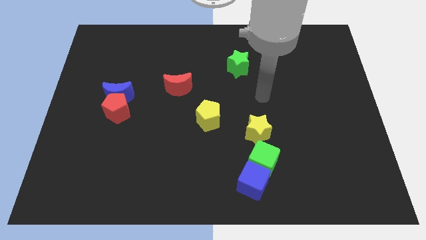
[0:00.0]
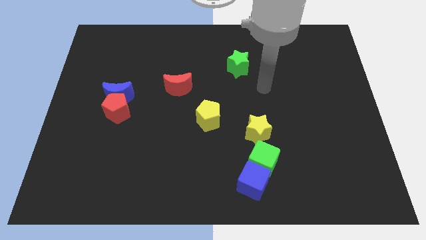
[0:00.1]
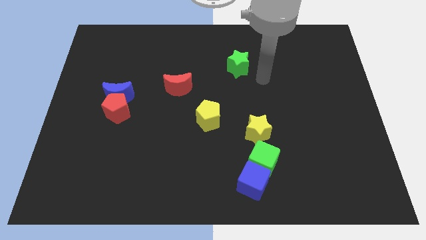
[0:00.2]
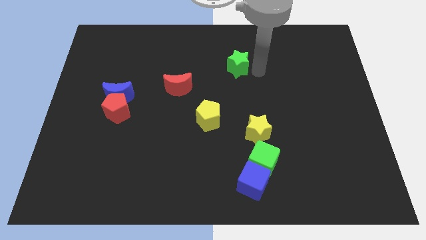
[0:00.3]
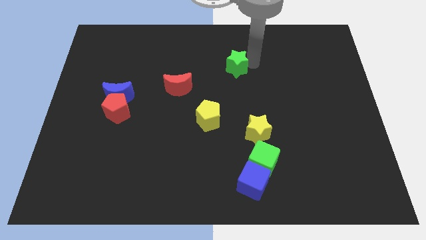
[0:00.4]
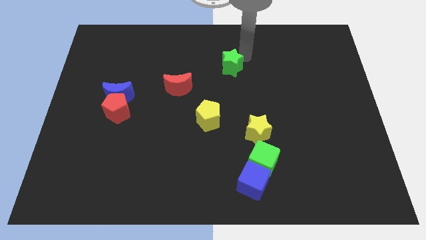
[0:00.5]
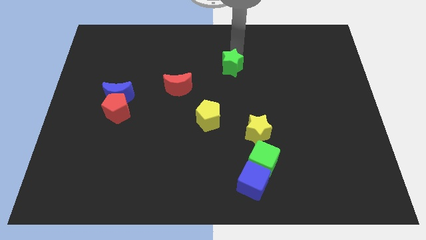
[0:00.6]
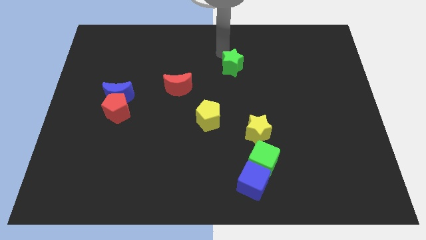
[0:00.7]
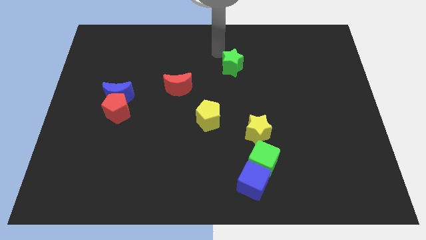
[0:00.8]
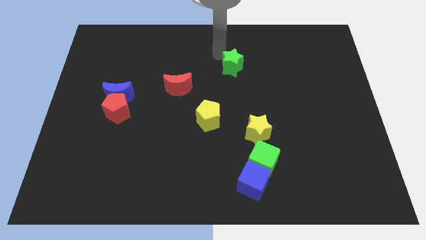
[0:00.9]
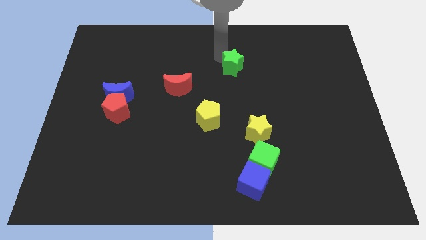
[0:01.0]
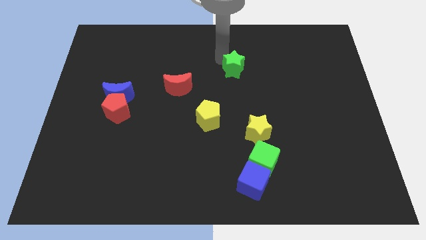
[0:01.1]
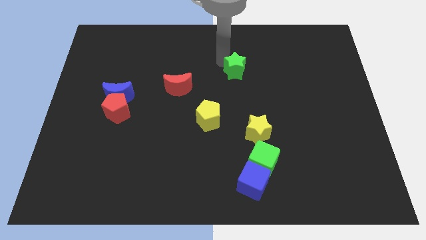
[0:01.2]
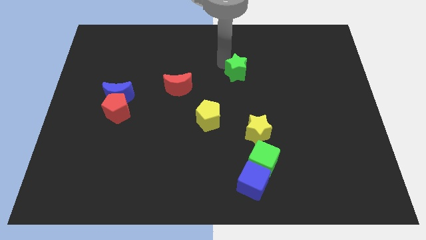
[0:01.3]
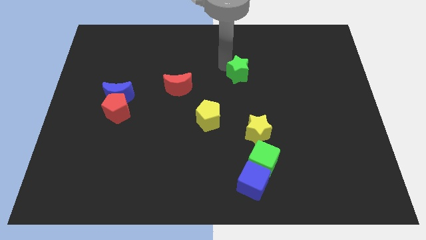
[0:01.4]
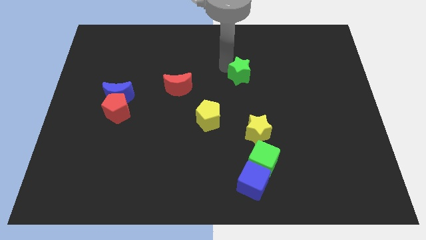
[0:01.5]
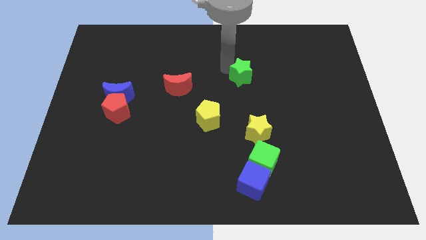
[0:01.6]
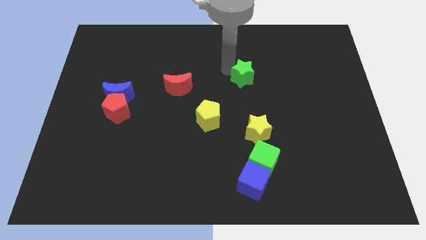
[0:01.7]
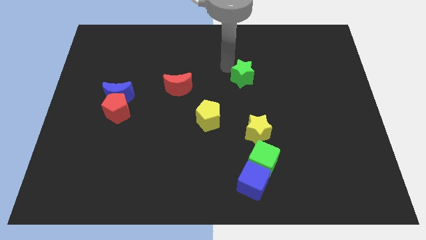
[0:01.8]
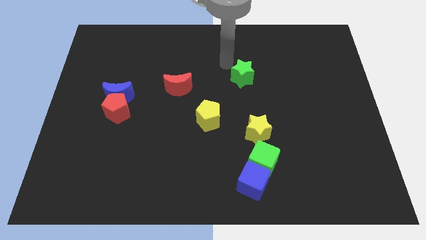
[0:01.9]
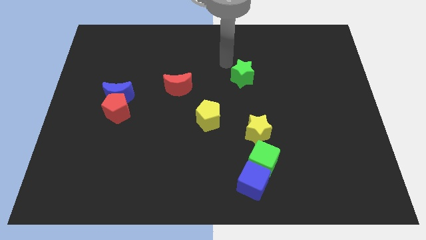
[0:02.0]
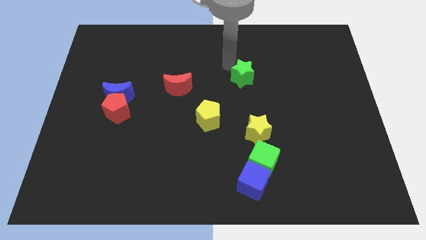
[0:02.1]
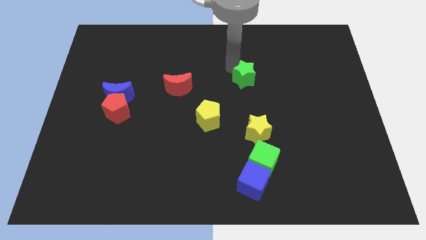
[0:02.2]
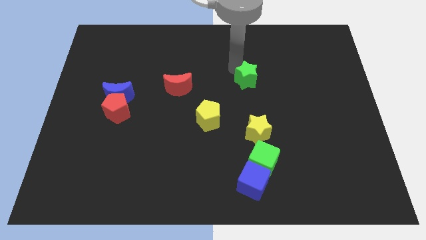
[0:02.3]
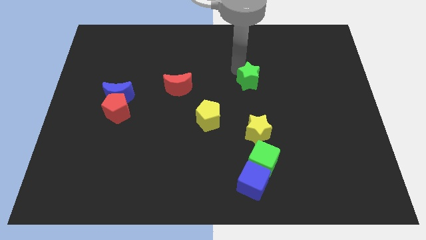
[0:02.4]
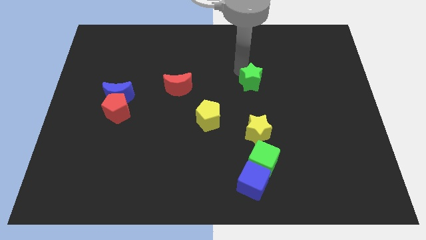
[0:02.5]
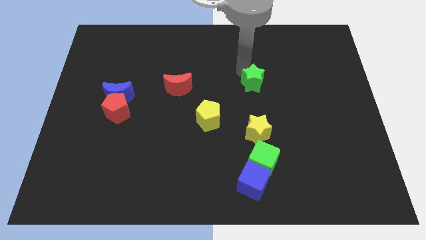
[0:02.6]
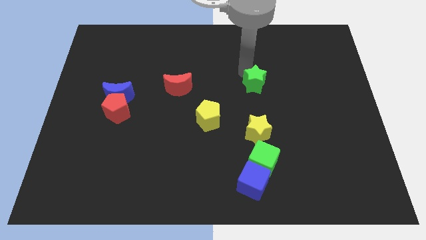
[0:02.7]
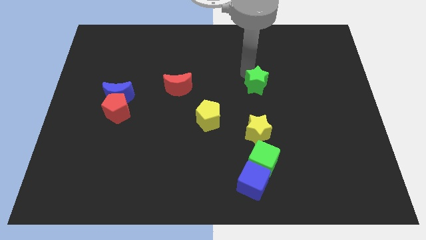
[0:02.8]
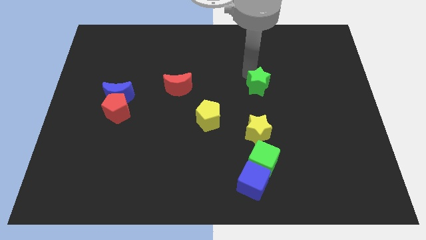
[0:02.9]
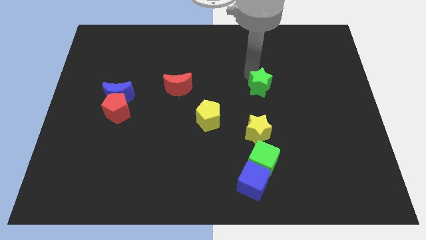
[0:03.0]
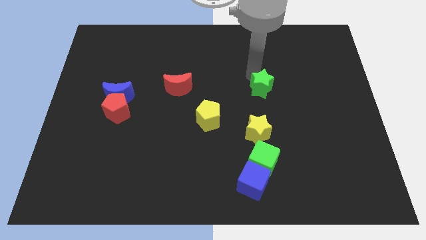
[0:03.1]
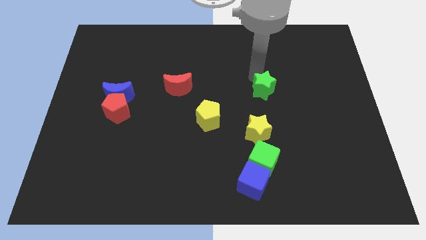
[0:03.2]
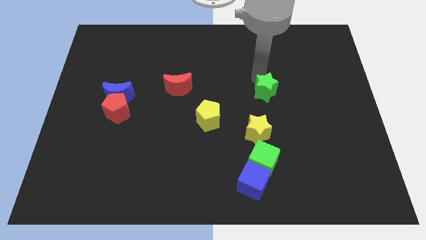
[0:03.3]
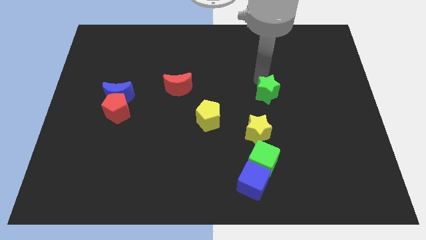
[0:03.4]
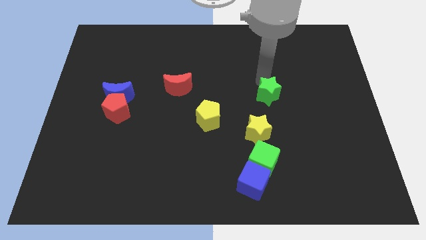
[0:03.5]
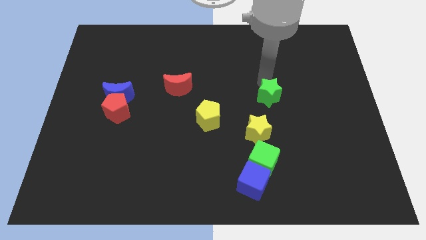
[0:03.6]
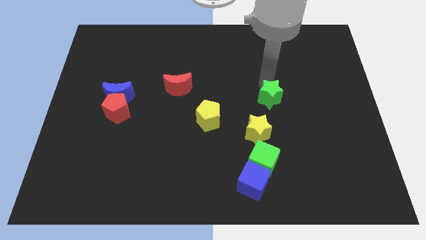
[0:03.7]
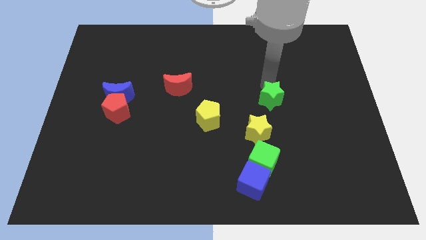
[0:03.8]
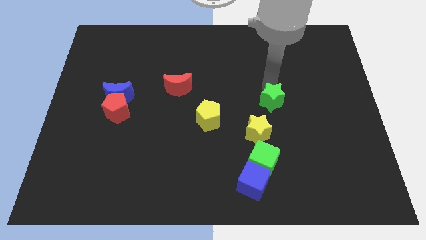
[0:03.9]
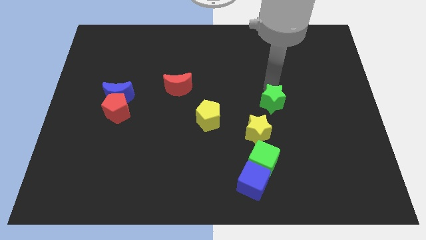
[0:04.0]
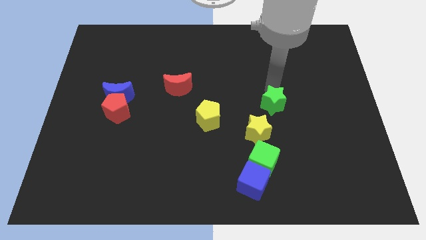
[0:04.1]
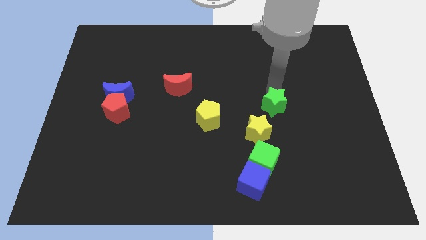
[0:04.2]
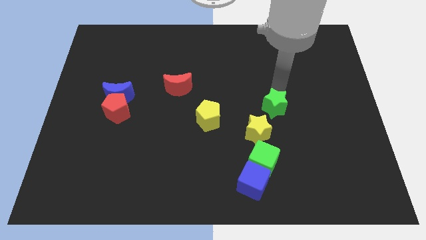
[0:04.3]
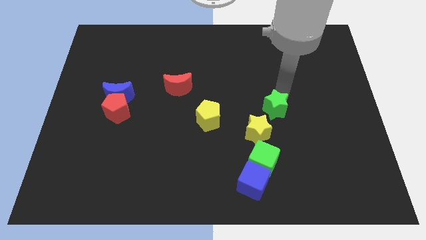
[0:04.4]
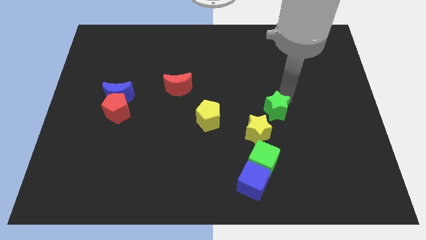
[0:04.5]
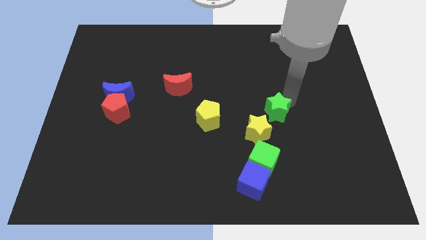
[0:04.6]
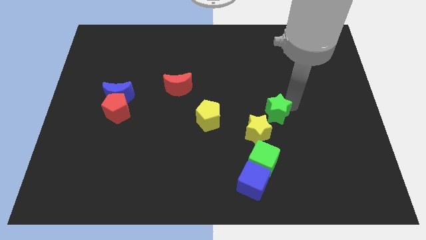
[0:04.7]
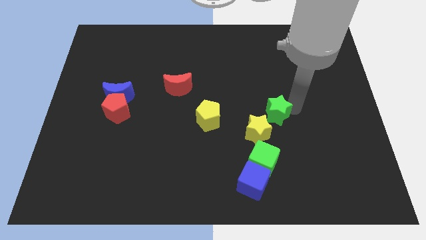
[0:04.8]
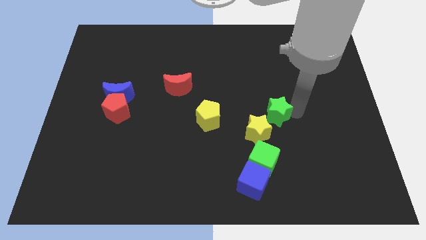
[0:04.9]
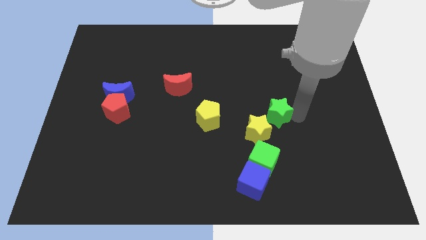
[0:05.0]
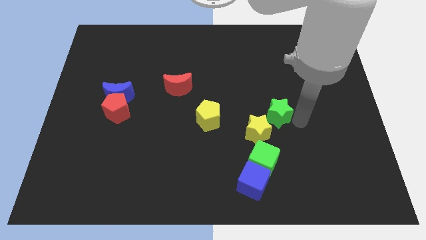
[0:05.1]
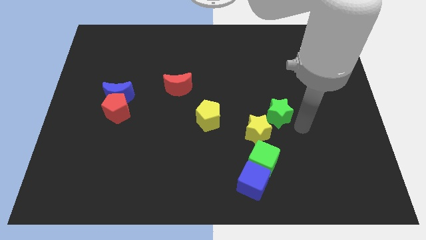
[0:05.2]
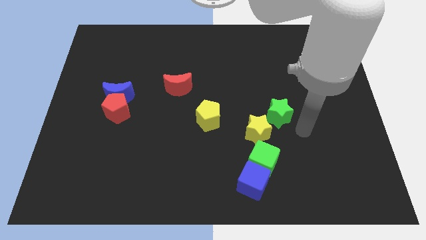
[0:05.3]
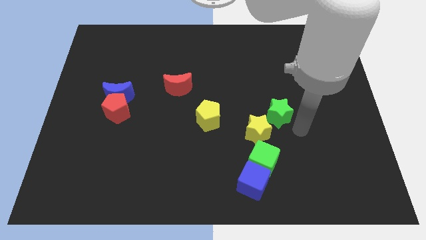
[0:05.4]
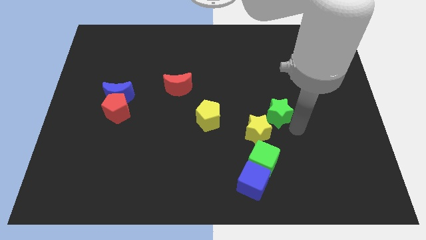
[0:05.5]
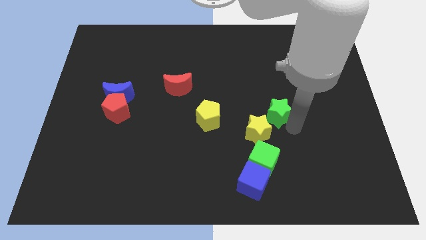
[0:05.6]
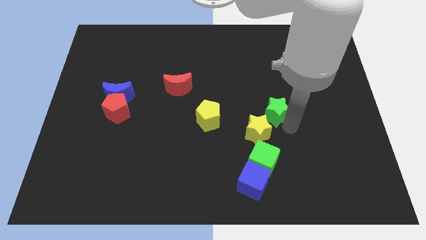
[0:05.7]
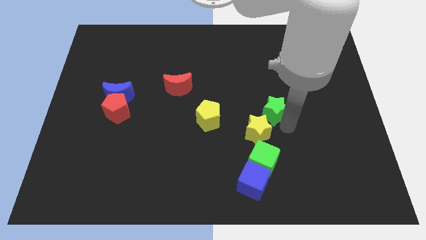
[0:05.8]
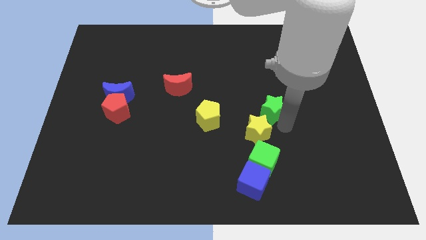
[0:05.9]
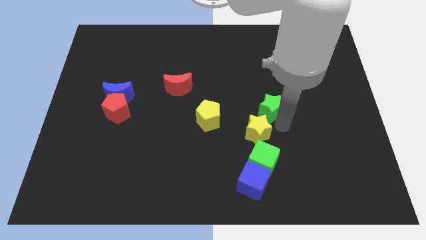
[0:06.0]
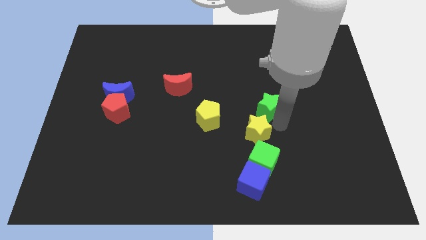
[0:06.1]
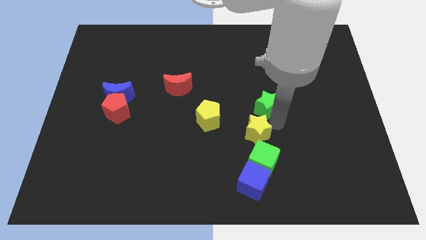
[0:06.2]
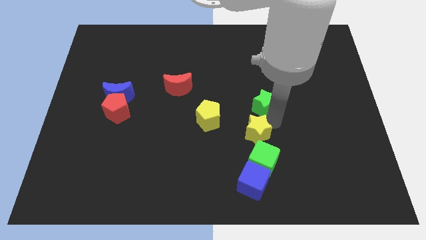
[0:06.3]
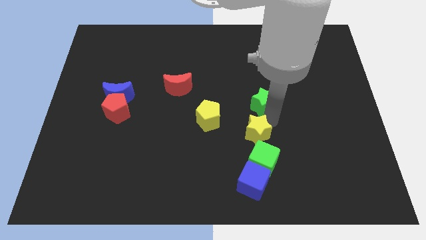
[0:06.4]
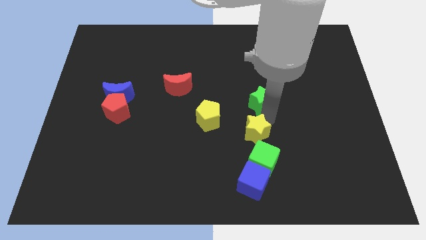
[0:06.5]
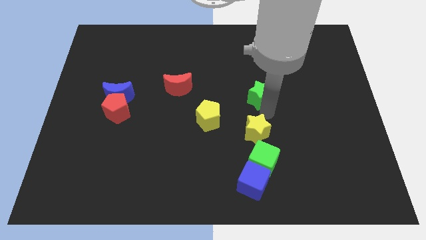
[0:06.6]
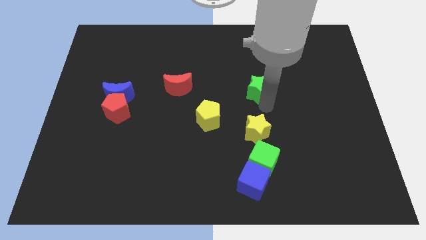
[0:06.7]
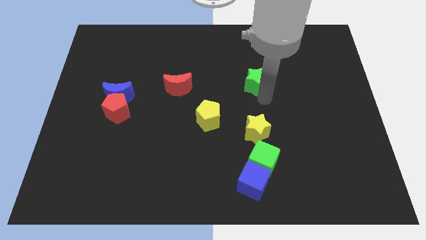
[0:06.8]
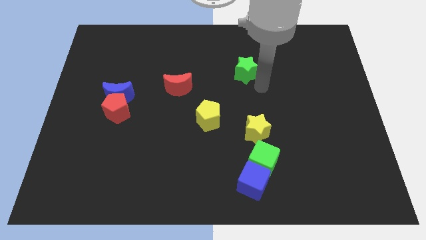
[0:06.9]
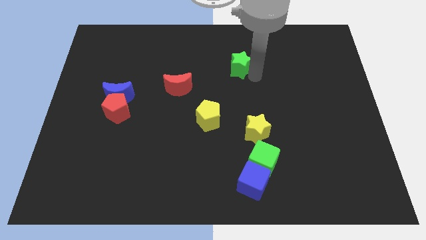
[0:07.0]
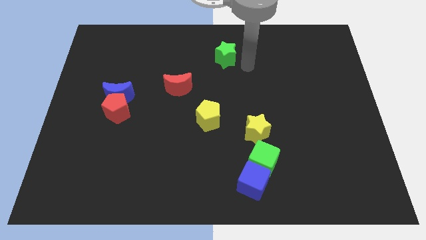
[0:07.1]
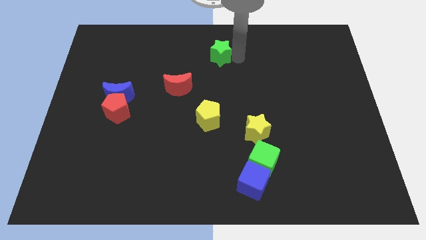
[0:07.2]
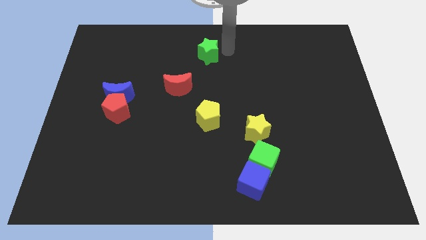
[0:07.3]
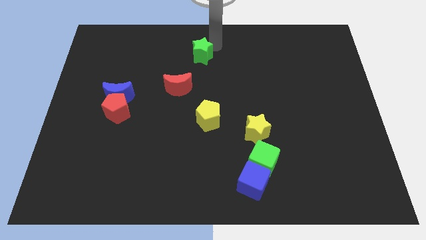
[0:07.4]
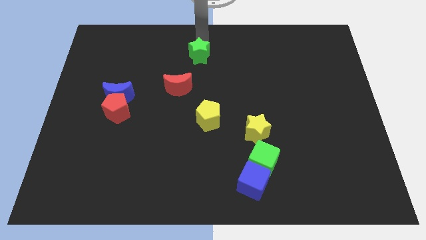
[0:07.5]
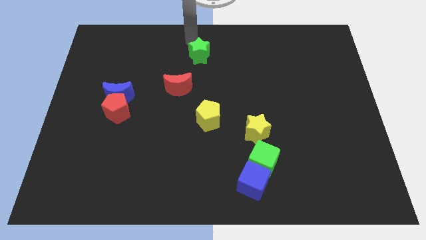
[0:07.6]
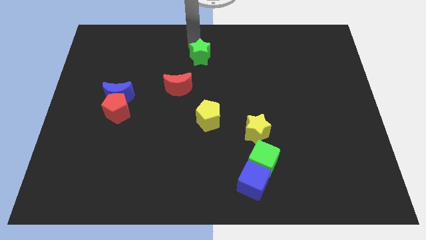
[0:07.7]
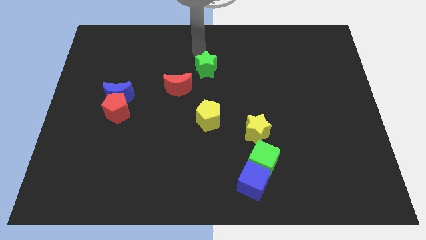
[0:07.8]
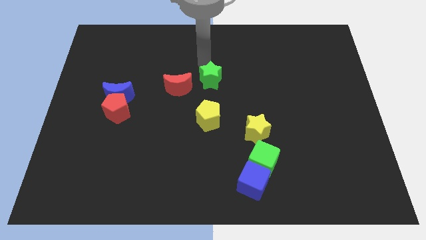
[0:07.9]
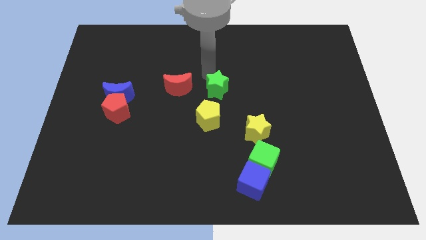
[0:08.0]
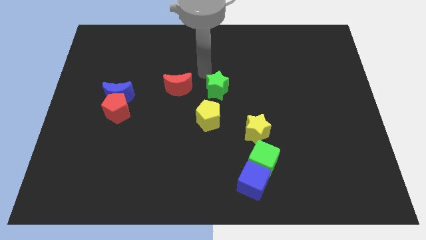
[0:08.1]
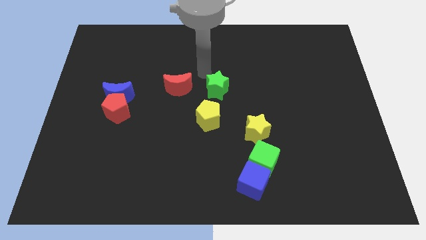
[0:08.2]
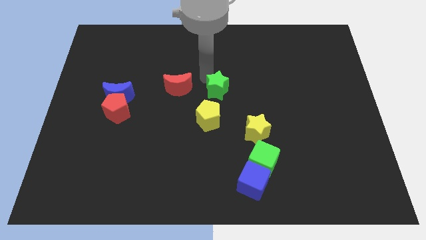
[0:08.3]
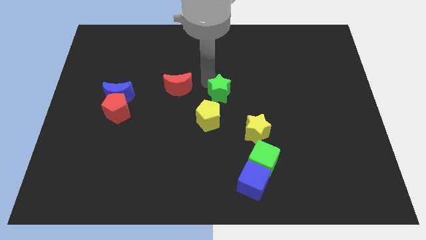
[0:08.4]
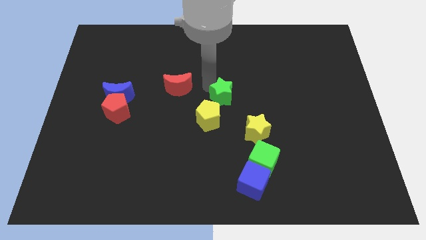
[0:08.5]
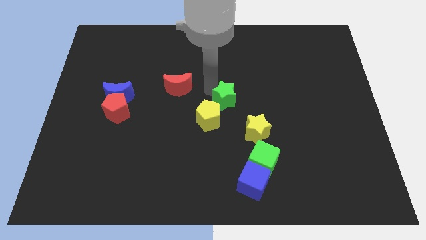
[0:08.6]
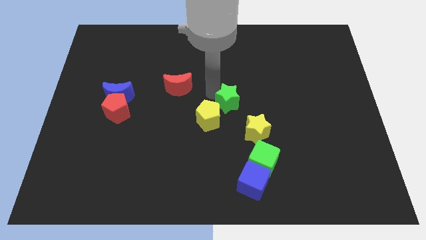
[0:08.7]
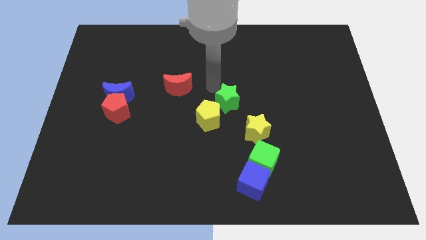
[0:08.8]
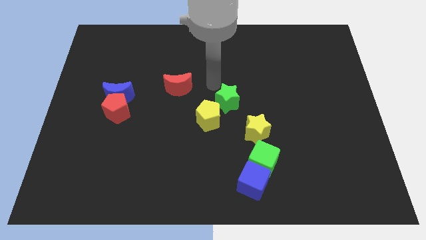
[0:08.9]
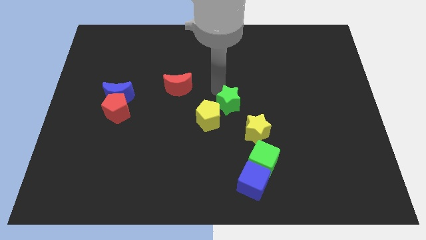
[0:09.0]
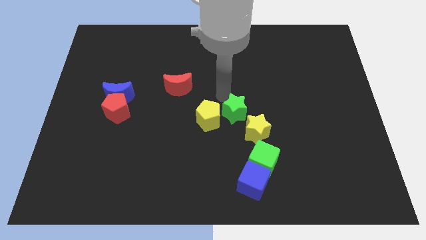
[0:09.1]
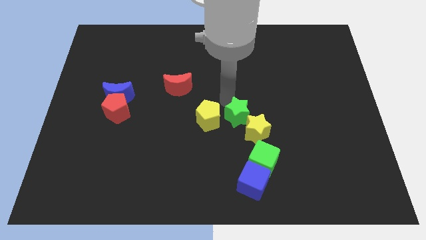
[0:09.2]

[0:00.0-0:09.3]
move the green star close to the yellow star
